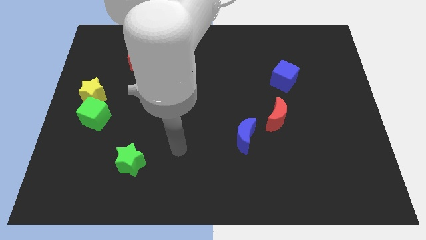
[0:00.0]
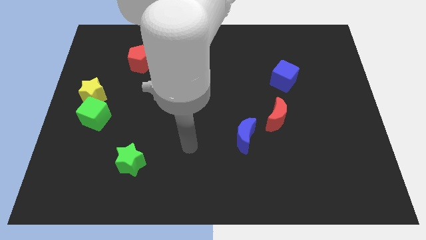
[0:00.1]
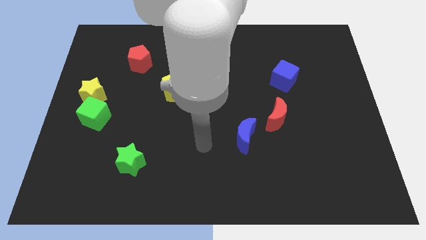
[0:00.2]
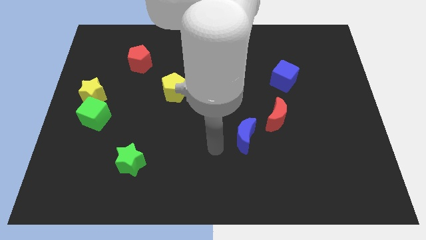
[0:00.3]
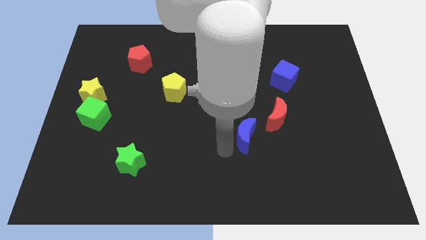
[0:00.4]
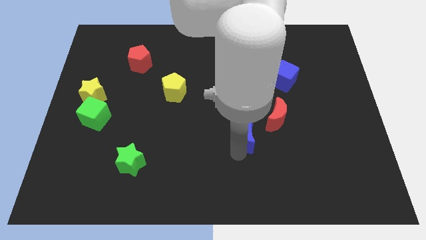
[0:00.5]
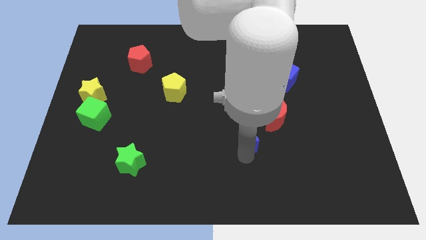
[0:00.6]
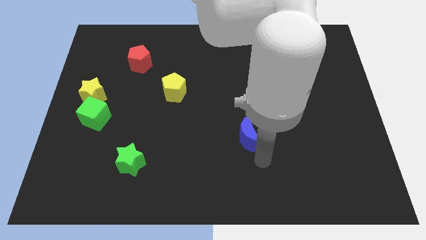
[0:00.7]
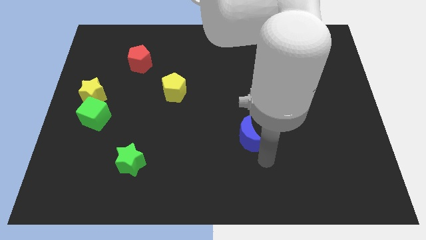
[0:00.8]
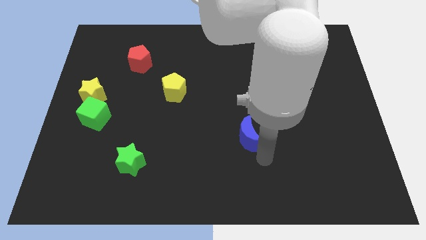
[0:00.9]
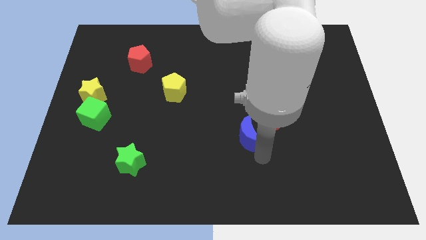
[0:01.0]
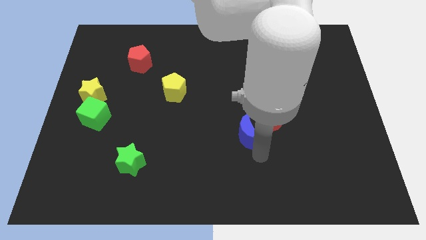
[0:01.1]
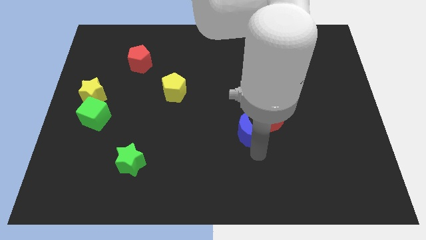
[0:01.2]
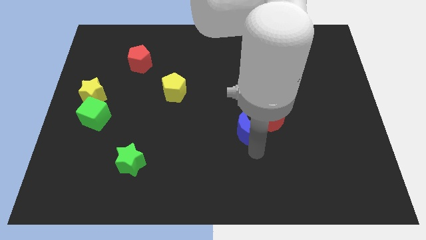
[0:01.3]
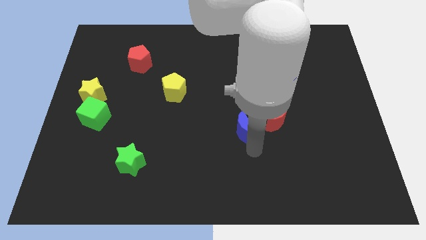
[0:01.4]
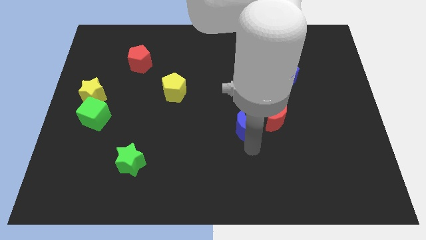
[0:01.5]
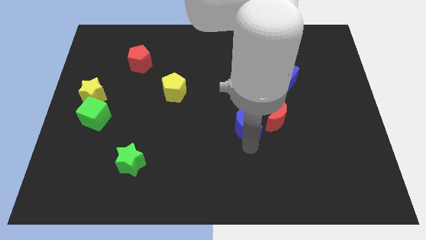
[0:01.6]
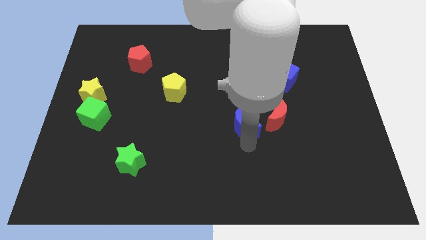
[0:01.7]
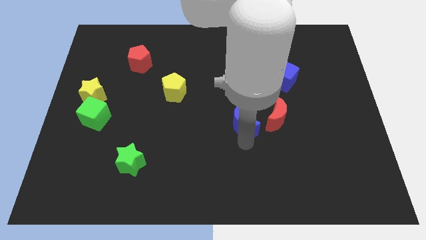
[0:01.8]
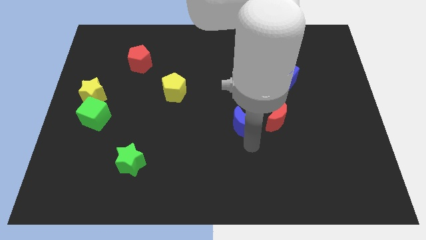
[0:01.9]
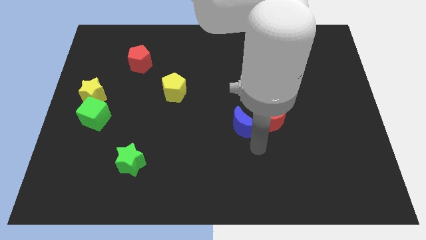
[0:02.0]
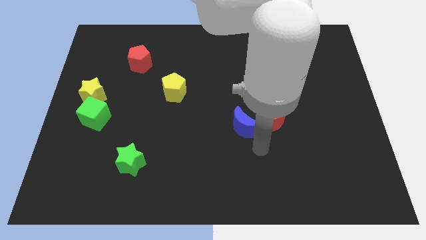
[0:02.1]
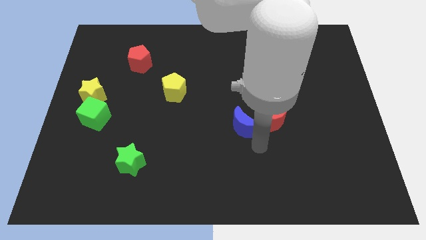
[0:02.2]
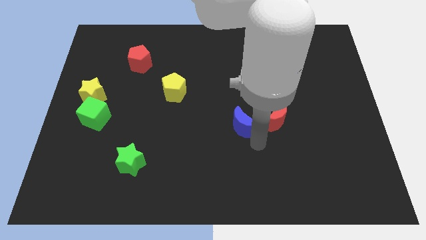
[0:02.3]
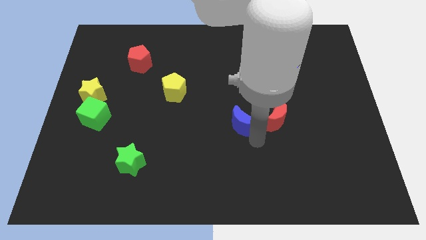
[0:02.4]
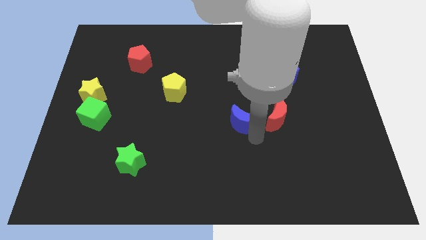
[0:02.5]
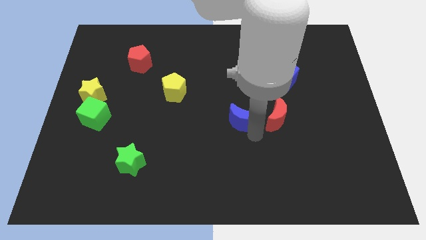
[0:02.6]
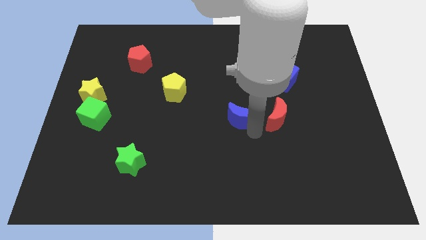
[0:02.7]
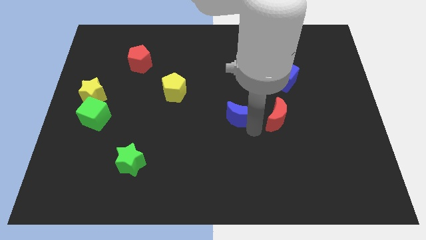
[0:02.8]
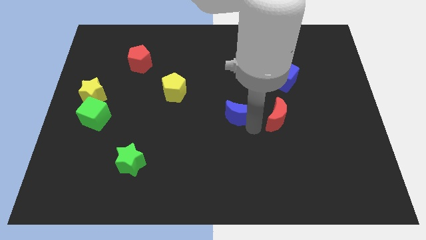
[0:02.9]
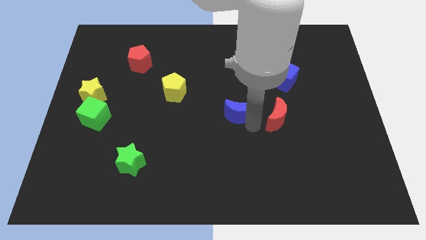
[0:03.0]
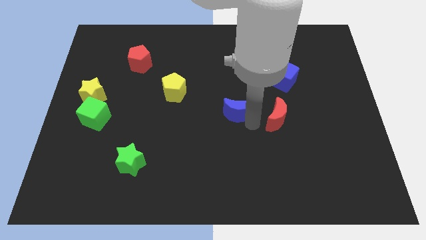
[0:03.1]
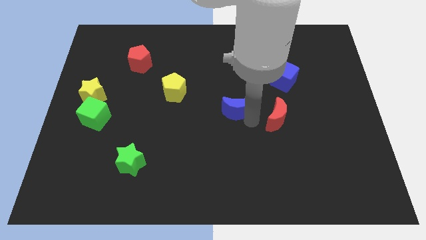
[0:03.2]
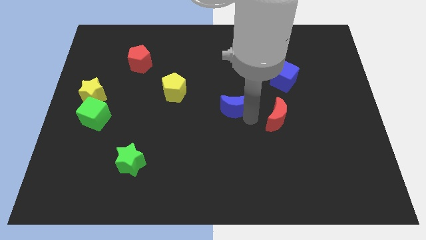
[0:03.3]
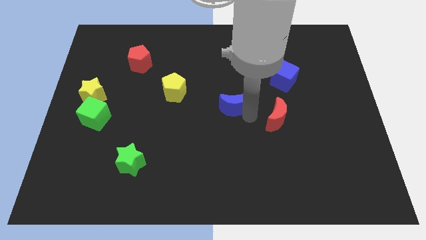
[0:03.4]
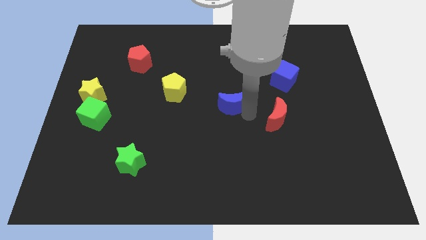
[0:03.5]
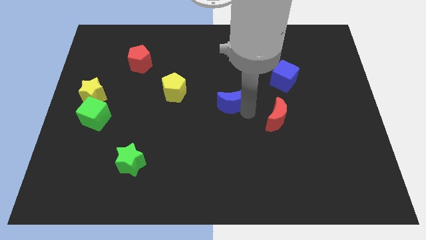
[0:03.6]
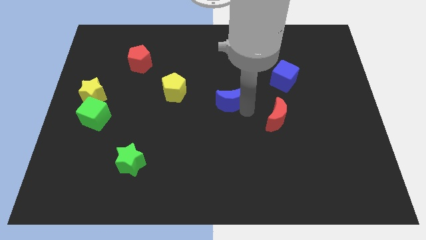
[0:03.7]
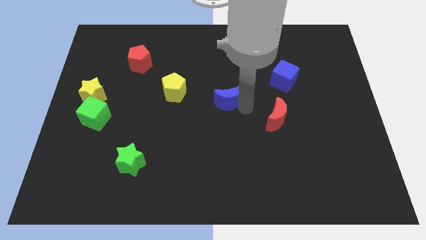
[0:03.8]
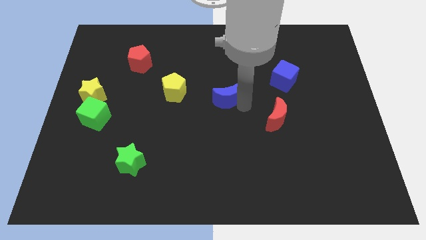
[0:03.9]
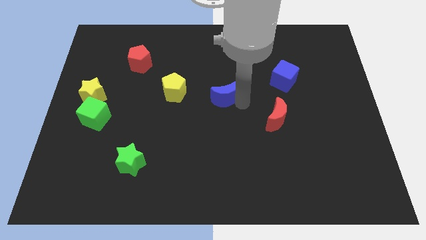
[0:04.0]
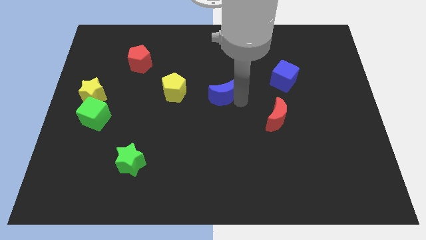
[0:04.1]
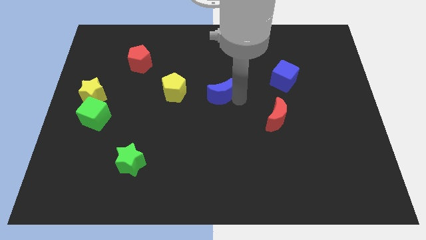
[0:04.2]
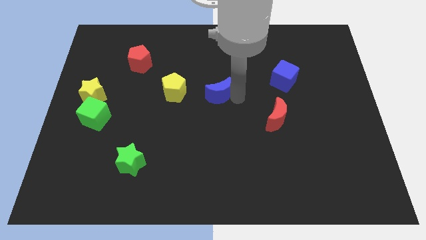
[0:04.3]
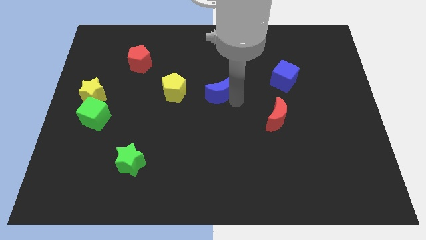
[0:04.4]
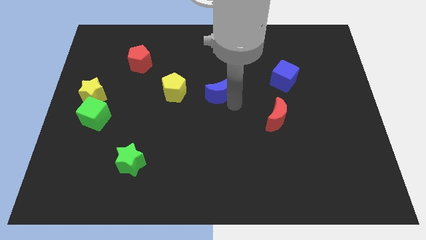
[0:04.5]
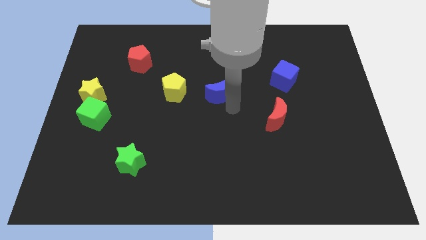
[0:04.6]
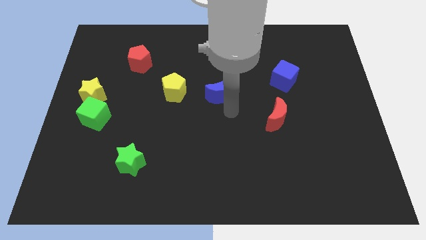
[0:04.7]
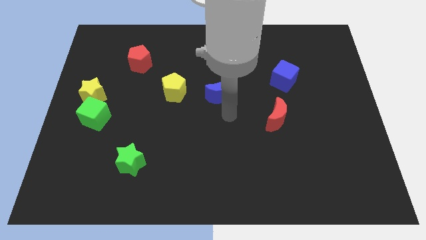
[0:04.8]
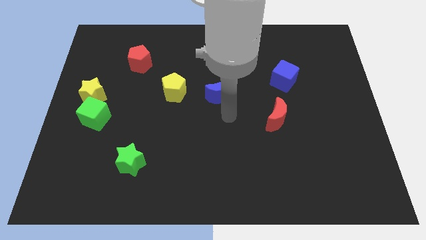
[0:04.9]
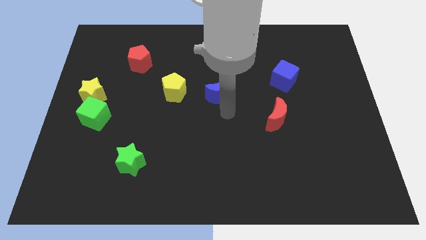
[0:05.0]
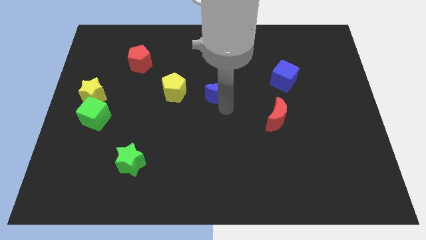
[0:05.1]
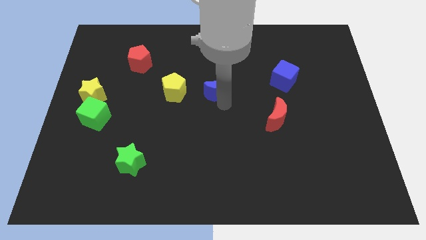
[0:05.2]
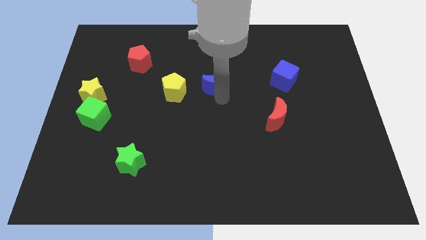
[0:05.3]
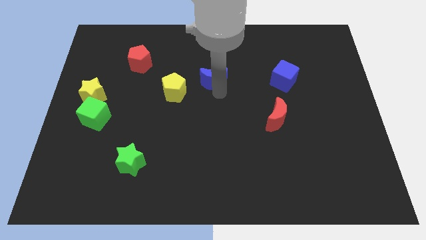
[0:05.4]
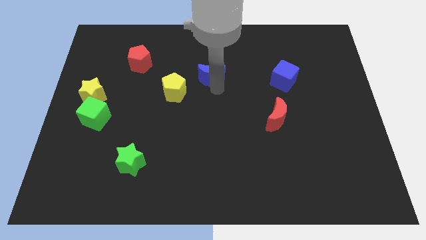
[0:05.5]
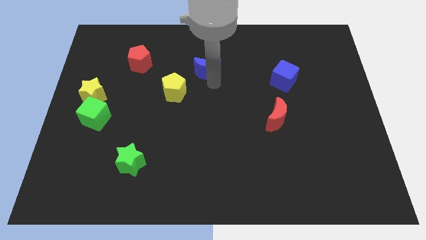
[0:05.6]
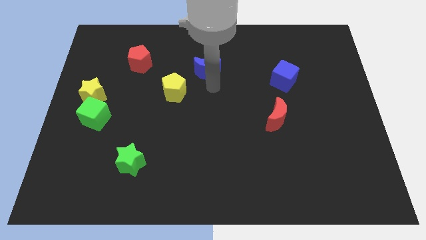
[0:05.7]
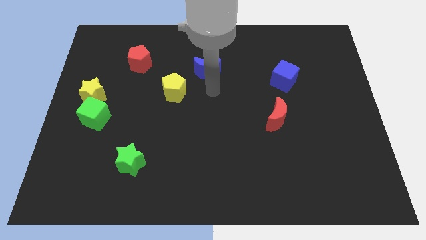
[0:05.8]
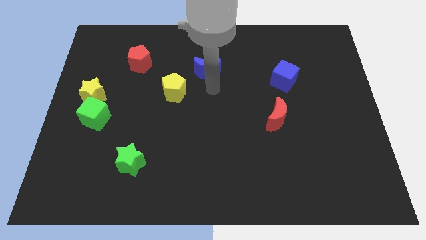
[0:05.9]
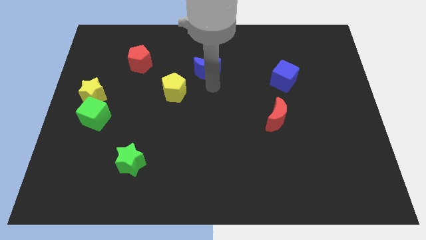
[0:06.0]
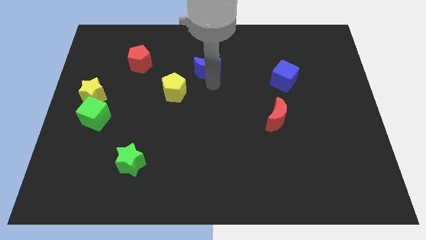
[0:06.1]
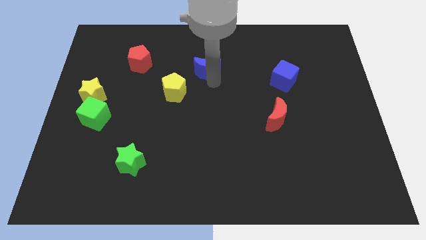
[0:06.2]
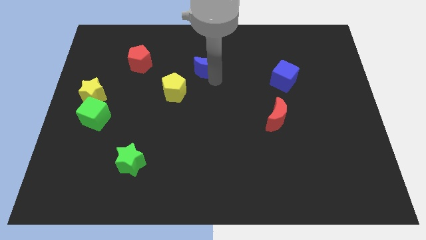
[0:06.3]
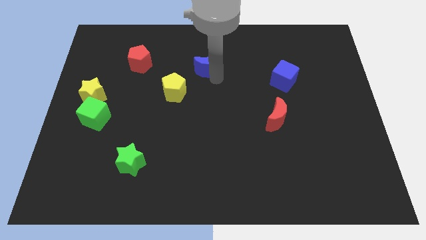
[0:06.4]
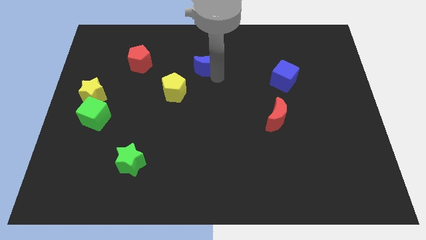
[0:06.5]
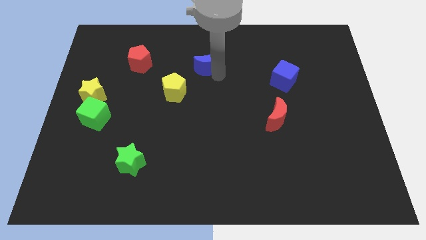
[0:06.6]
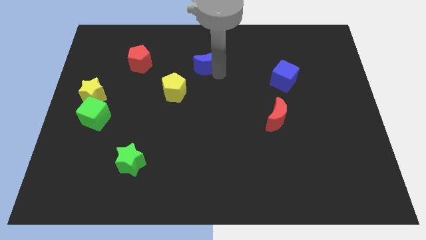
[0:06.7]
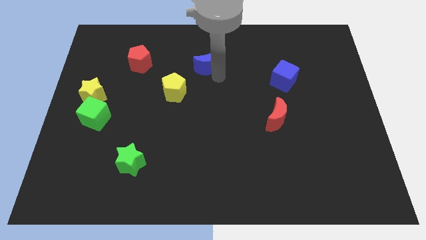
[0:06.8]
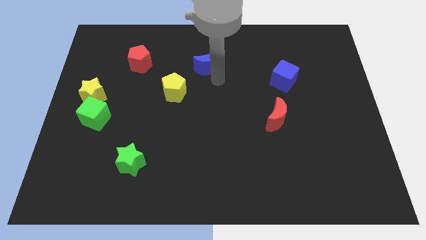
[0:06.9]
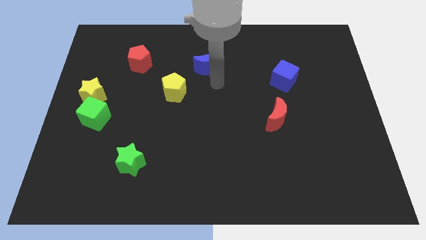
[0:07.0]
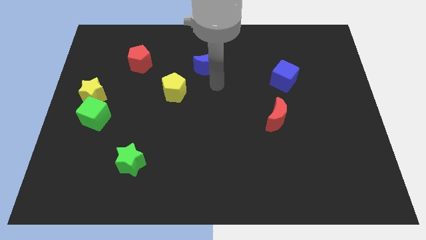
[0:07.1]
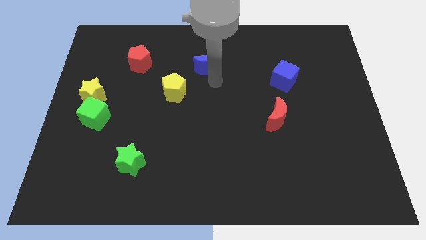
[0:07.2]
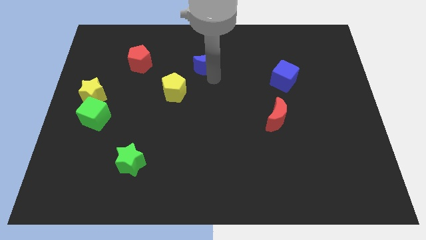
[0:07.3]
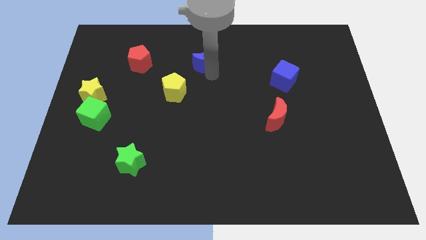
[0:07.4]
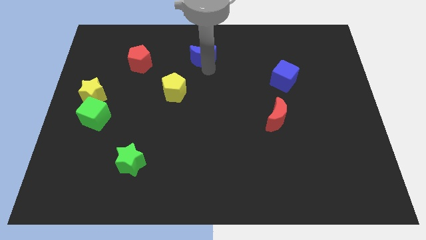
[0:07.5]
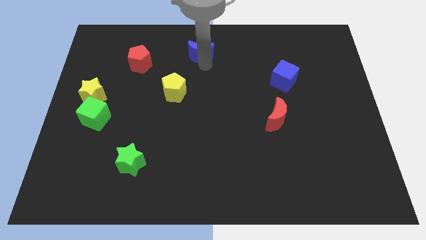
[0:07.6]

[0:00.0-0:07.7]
move the blue moon to the top side
